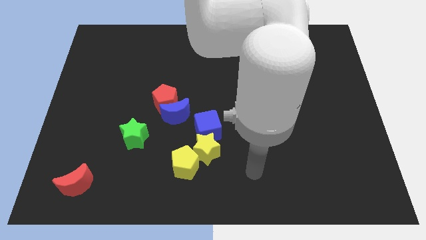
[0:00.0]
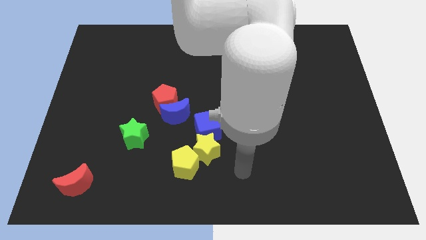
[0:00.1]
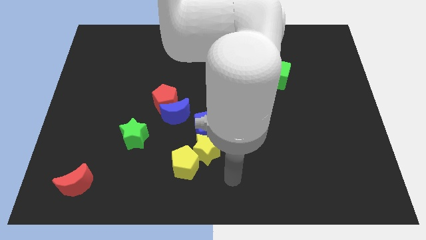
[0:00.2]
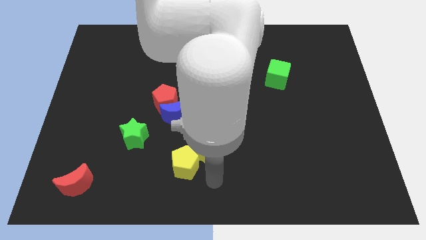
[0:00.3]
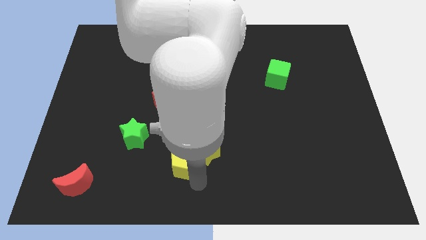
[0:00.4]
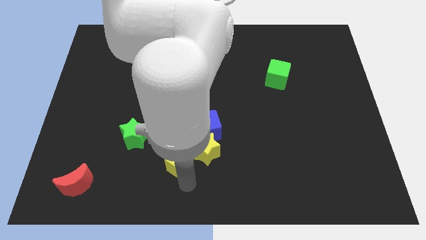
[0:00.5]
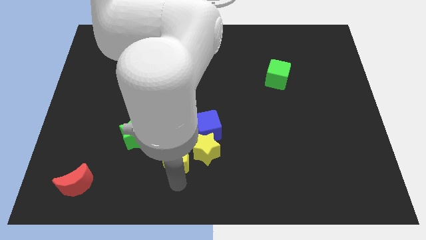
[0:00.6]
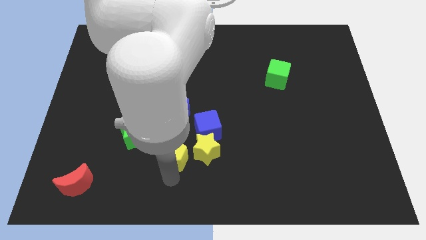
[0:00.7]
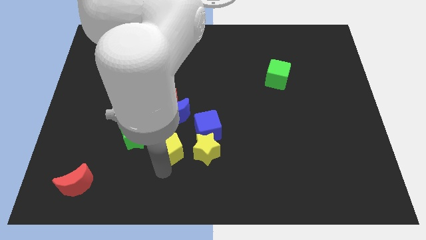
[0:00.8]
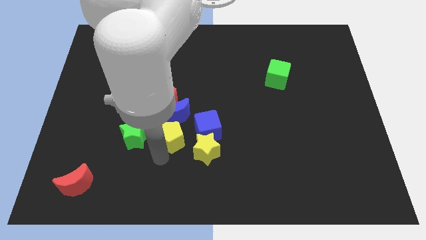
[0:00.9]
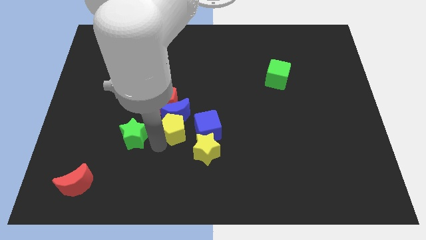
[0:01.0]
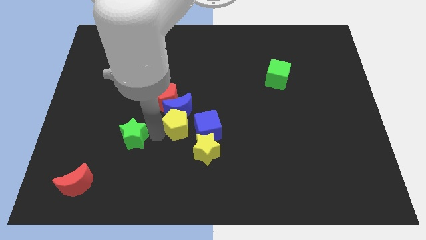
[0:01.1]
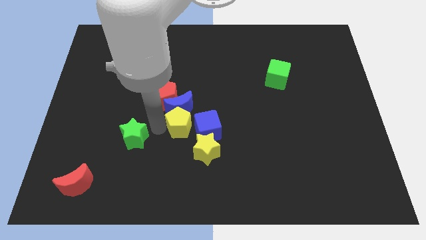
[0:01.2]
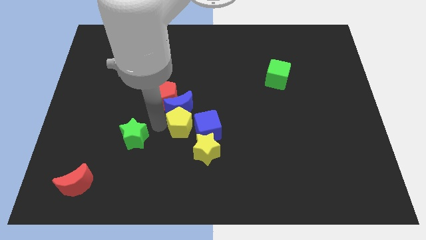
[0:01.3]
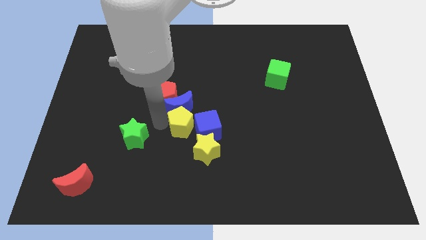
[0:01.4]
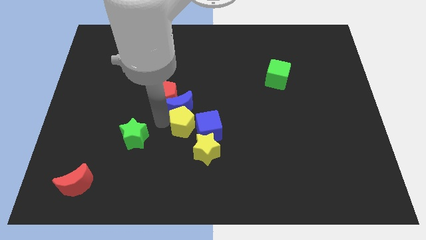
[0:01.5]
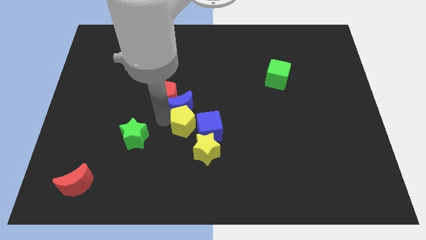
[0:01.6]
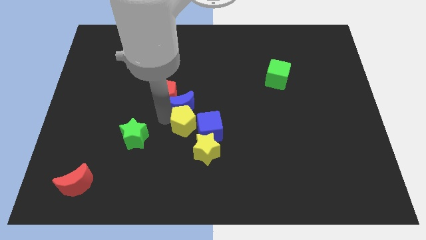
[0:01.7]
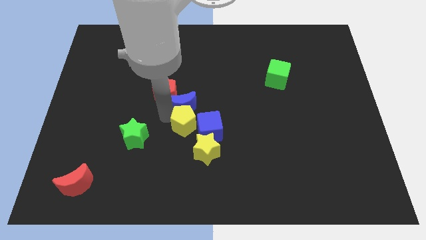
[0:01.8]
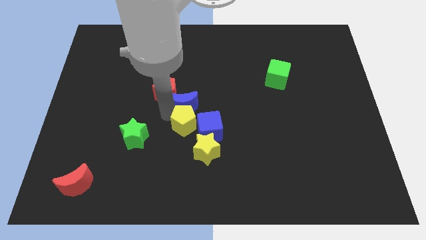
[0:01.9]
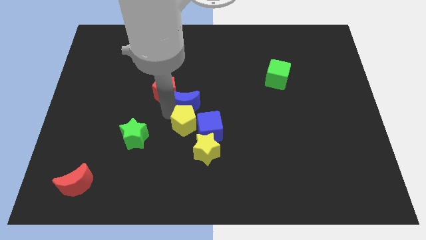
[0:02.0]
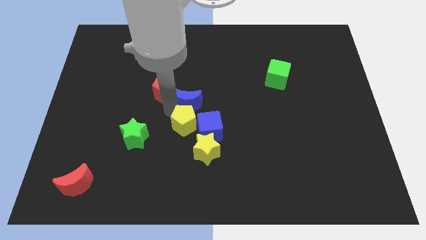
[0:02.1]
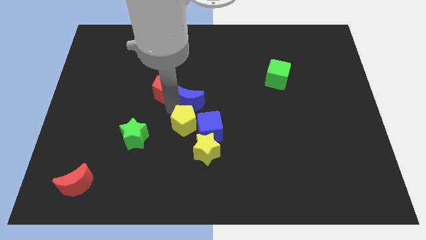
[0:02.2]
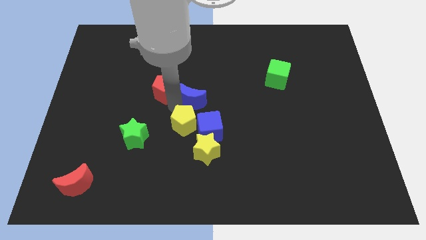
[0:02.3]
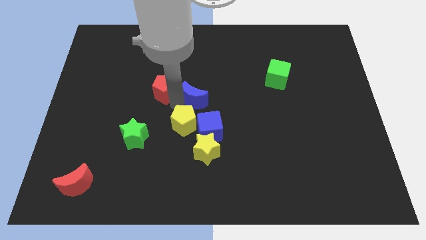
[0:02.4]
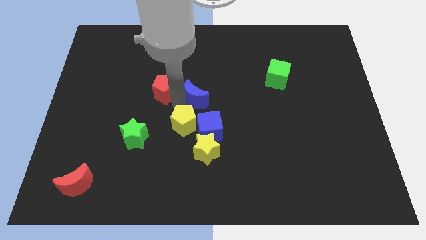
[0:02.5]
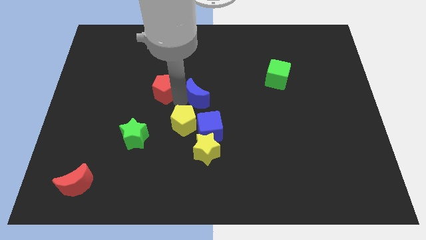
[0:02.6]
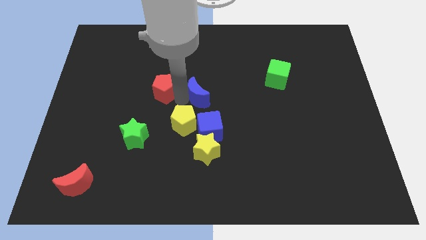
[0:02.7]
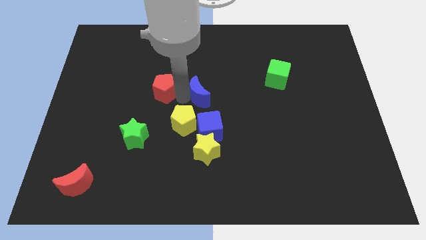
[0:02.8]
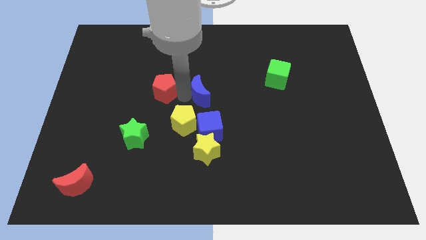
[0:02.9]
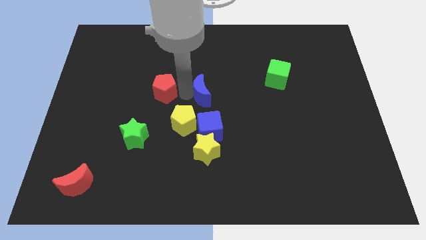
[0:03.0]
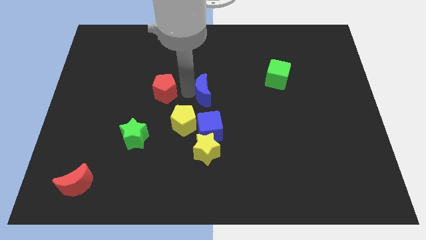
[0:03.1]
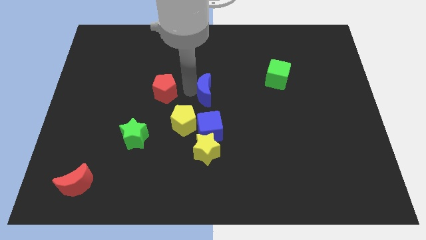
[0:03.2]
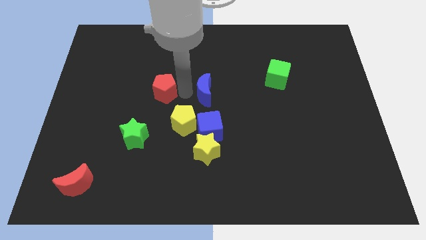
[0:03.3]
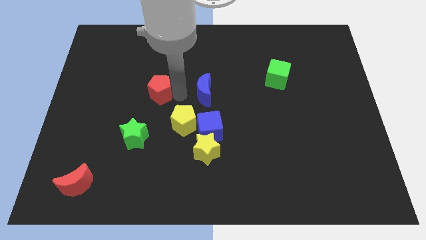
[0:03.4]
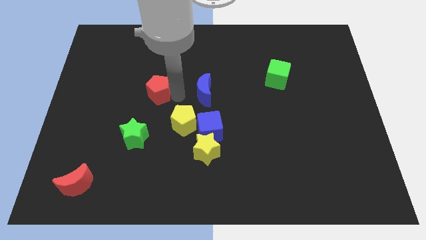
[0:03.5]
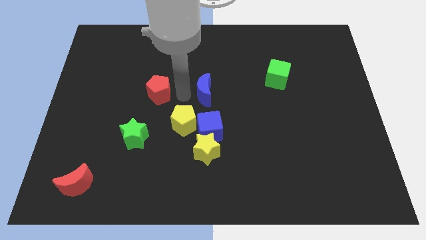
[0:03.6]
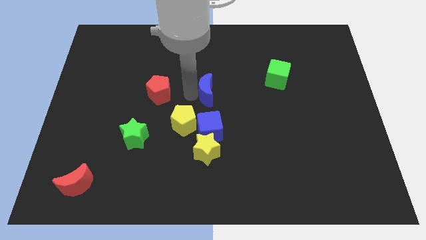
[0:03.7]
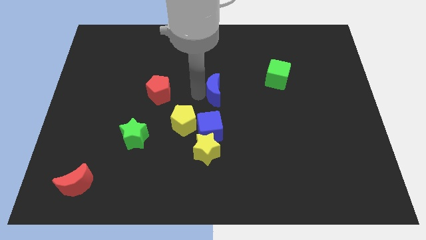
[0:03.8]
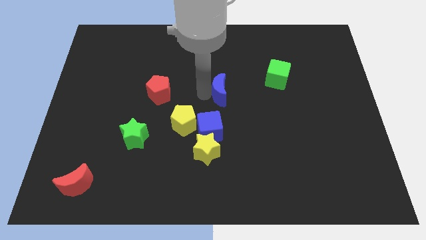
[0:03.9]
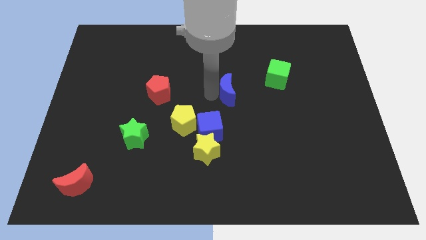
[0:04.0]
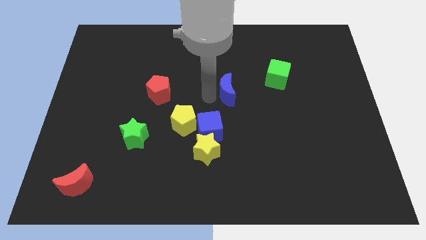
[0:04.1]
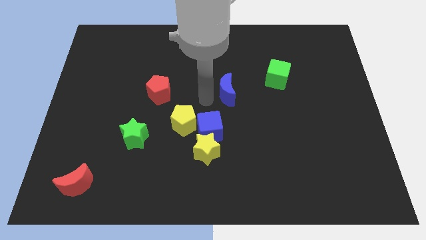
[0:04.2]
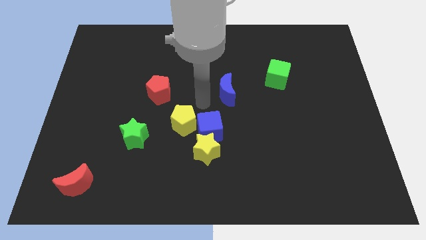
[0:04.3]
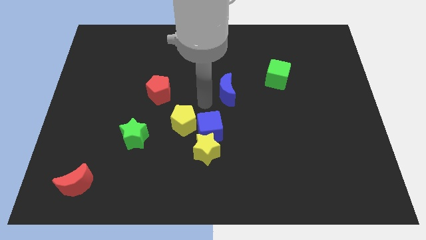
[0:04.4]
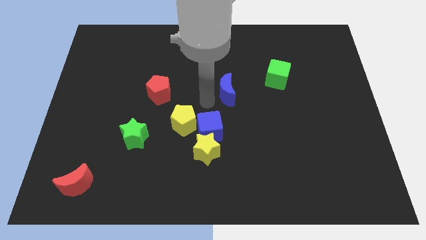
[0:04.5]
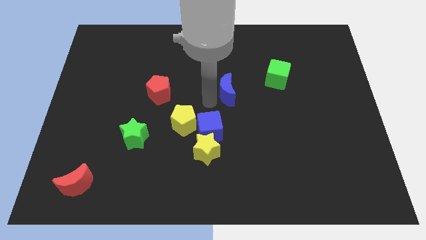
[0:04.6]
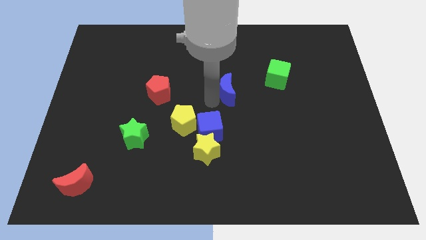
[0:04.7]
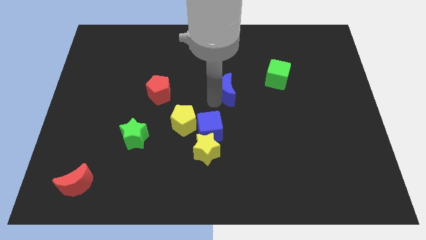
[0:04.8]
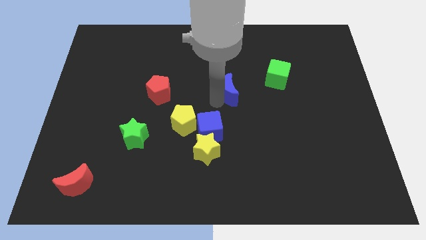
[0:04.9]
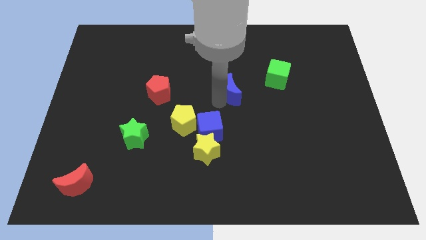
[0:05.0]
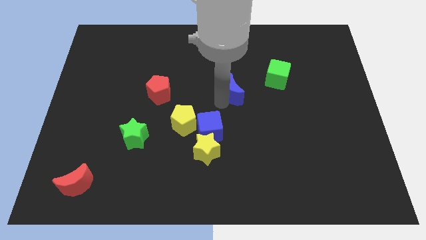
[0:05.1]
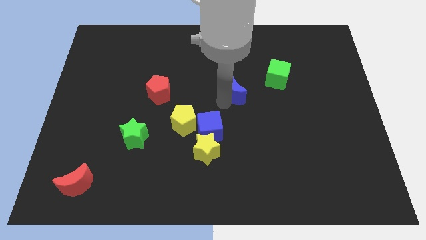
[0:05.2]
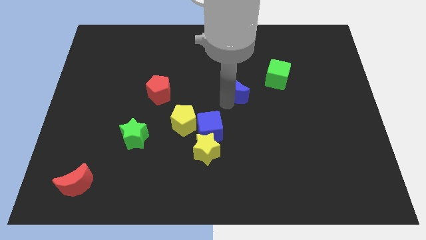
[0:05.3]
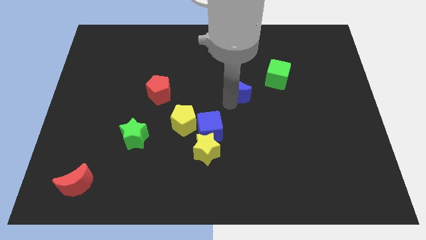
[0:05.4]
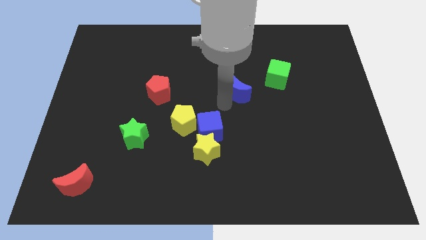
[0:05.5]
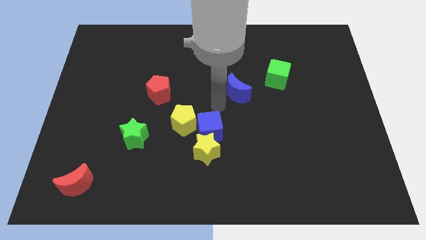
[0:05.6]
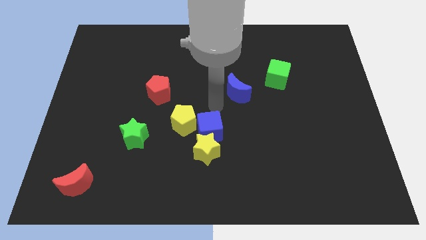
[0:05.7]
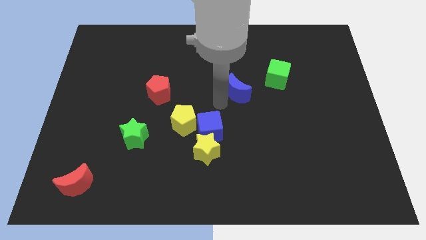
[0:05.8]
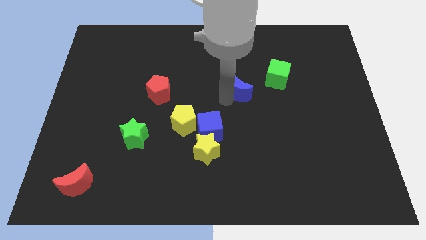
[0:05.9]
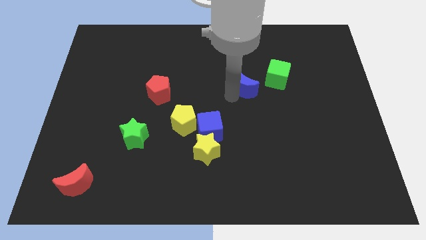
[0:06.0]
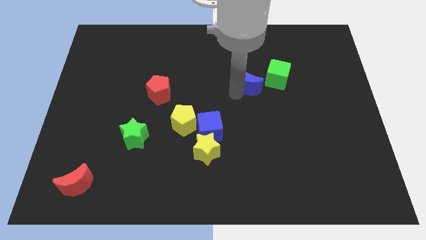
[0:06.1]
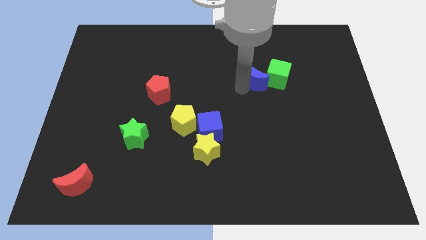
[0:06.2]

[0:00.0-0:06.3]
put the blue moon to the green cube

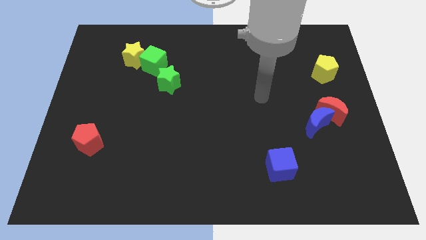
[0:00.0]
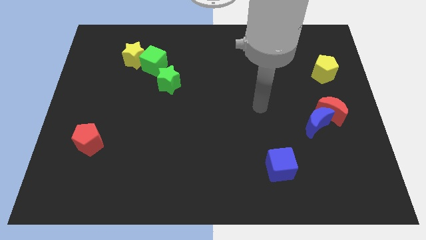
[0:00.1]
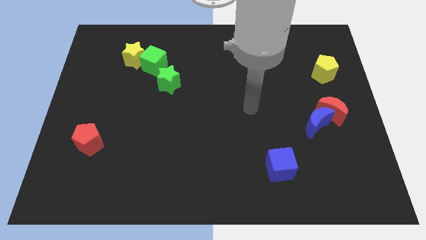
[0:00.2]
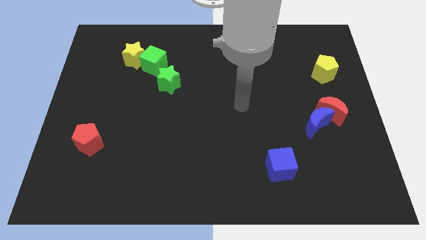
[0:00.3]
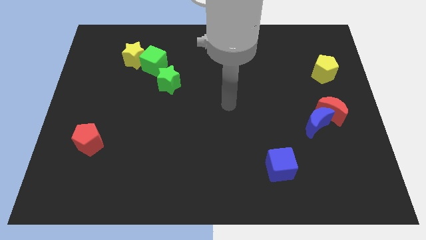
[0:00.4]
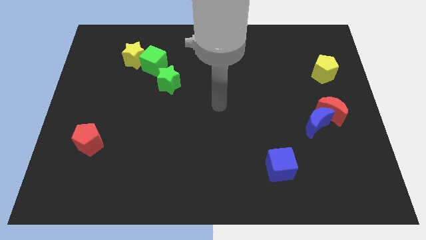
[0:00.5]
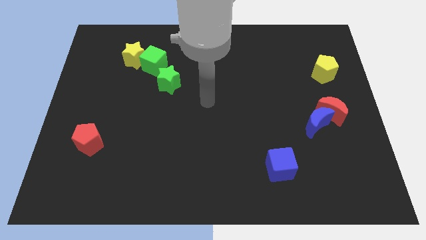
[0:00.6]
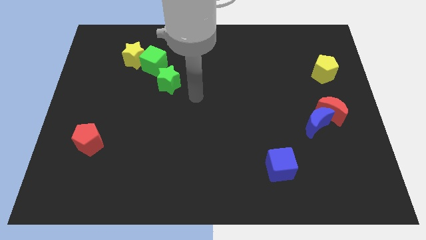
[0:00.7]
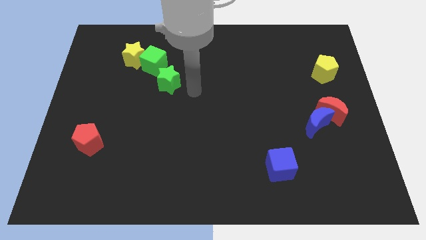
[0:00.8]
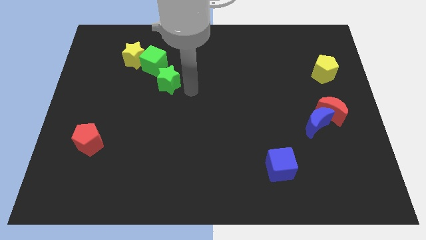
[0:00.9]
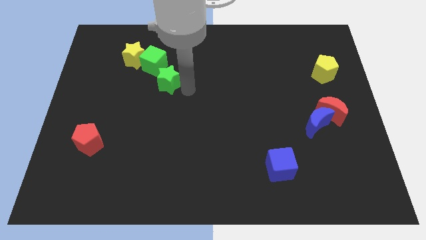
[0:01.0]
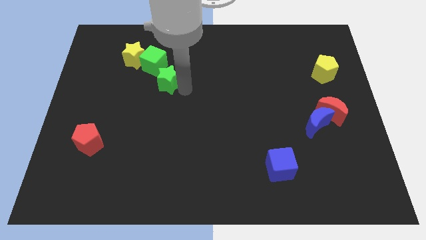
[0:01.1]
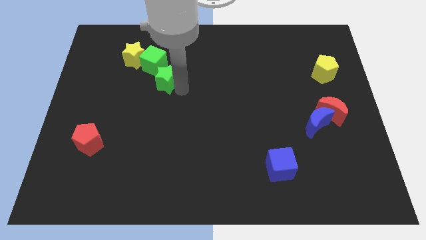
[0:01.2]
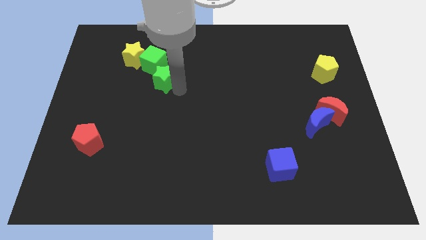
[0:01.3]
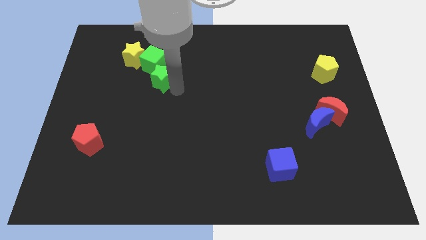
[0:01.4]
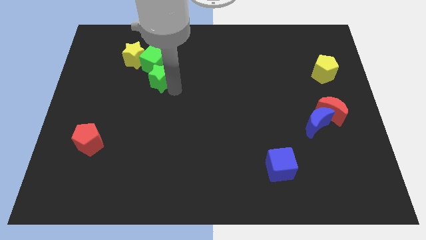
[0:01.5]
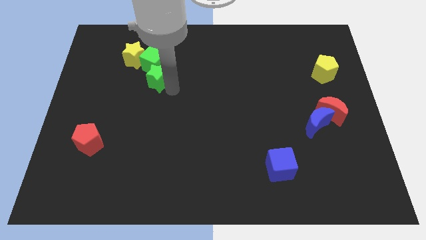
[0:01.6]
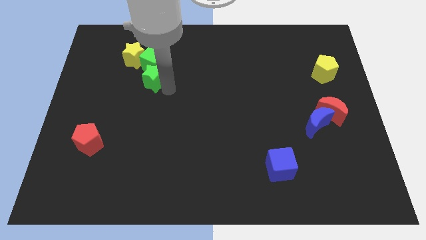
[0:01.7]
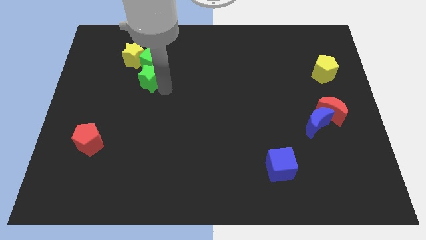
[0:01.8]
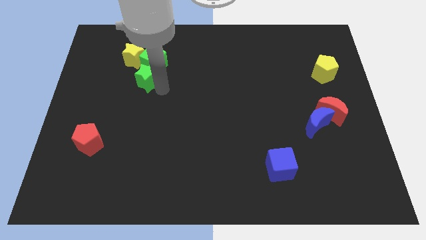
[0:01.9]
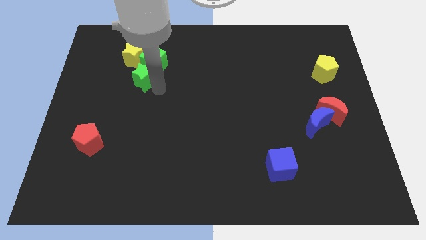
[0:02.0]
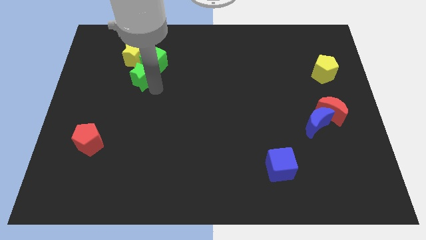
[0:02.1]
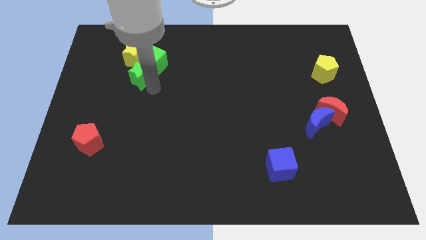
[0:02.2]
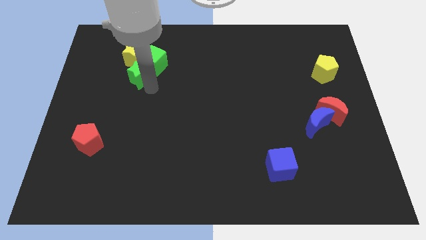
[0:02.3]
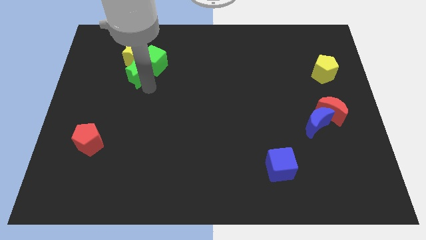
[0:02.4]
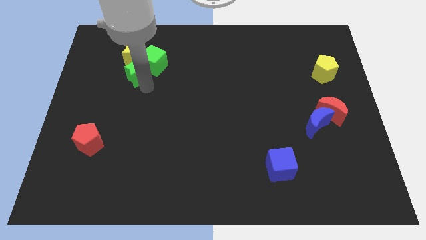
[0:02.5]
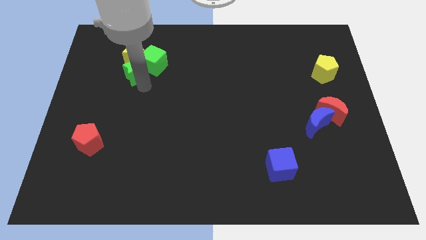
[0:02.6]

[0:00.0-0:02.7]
move the green star towards the yellow star
